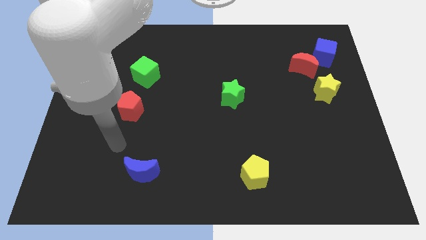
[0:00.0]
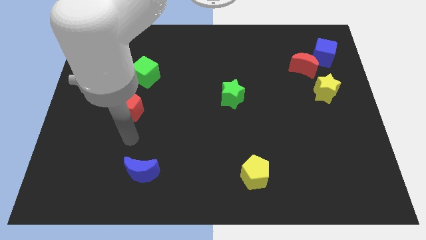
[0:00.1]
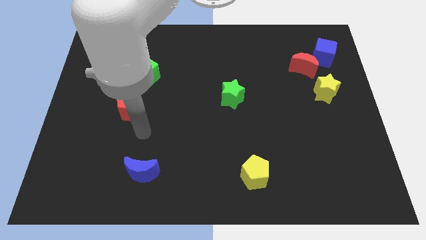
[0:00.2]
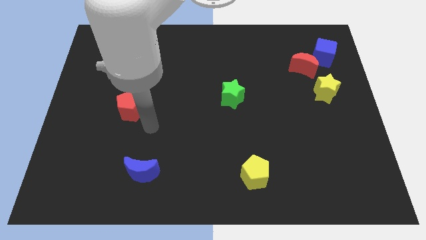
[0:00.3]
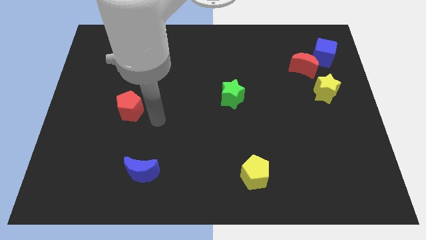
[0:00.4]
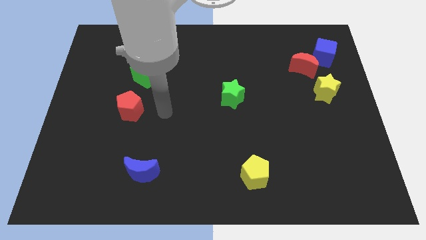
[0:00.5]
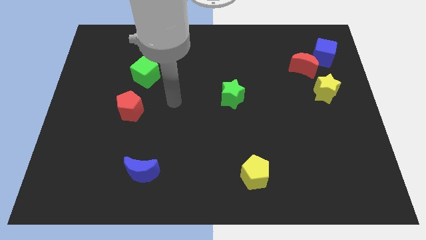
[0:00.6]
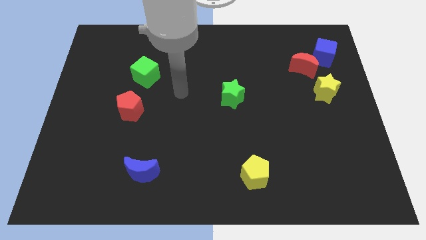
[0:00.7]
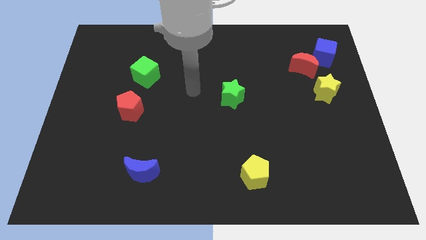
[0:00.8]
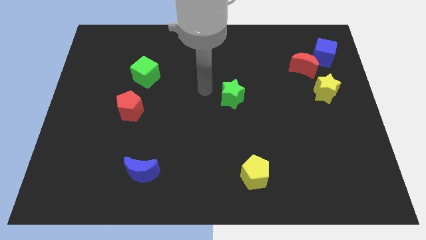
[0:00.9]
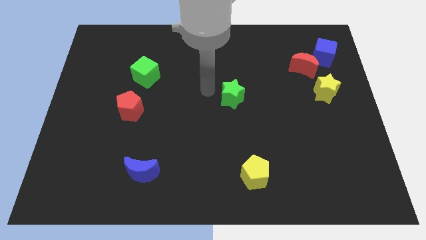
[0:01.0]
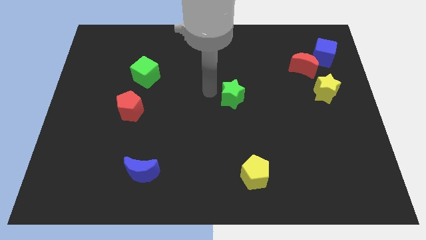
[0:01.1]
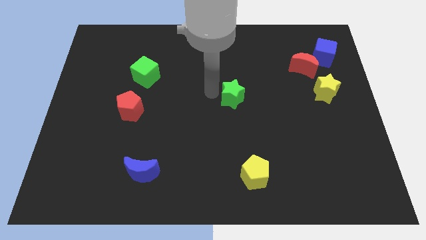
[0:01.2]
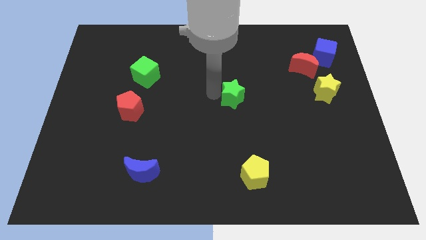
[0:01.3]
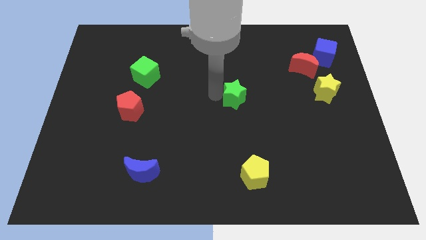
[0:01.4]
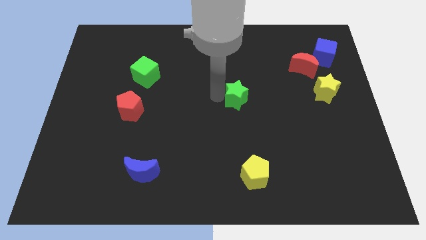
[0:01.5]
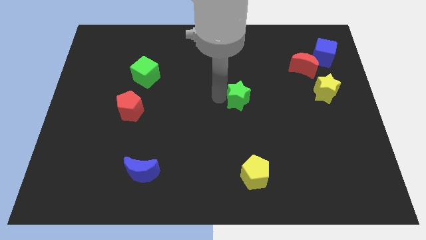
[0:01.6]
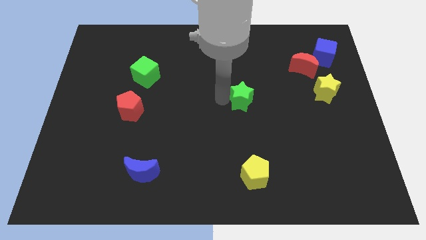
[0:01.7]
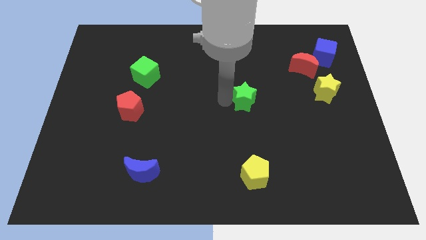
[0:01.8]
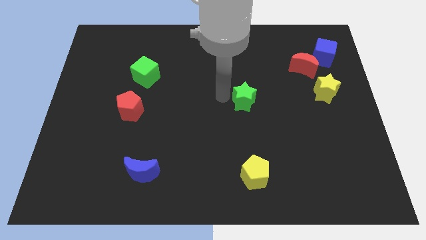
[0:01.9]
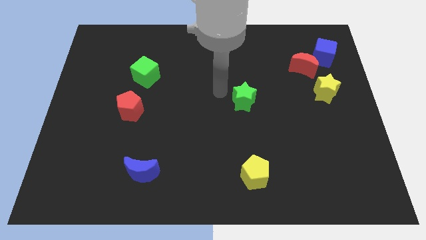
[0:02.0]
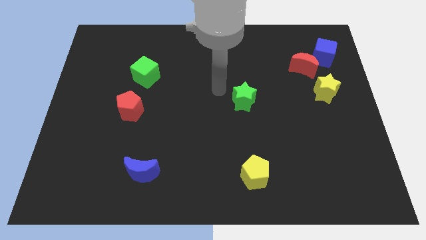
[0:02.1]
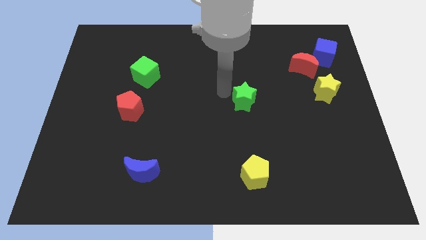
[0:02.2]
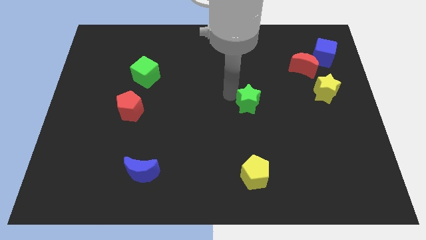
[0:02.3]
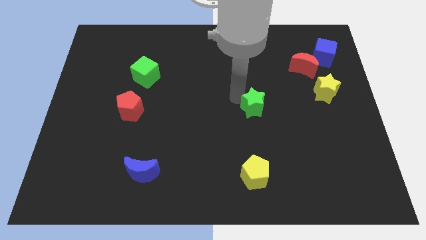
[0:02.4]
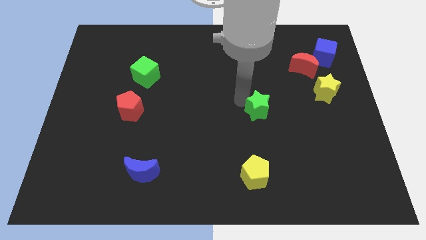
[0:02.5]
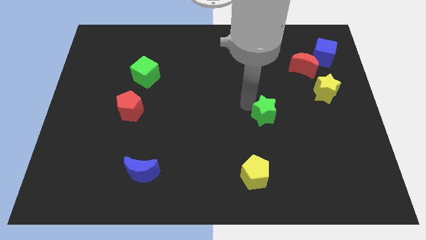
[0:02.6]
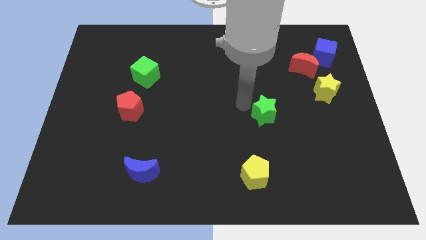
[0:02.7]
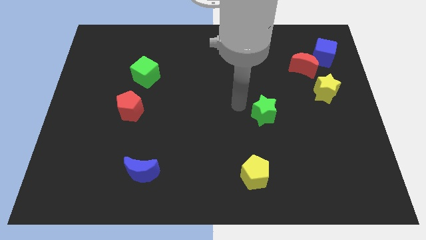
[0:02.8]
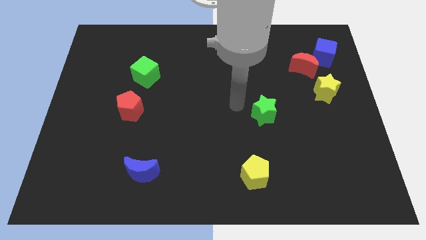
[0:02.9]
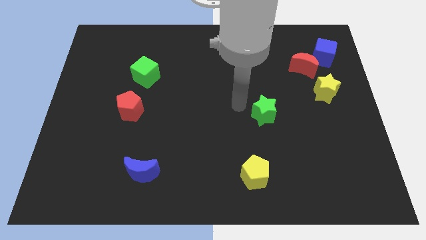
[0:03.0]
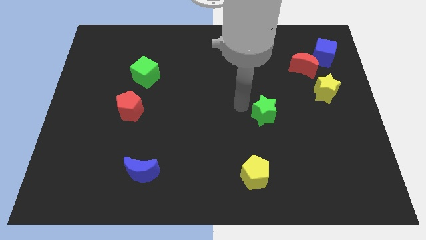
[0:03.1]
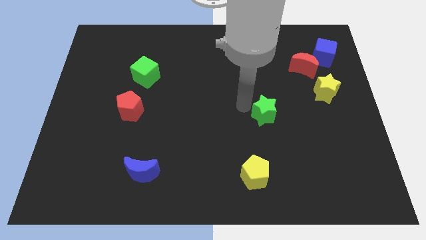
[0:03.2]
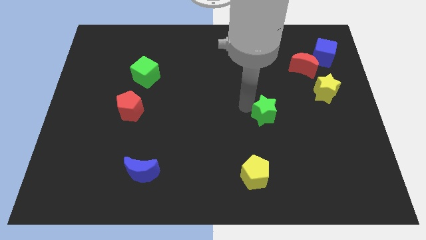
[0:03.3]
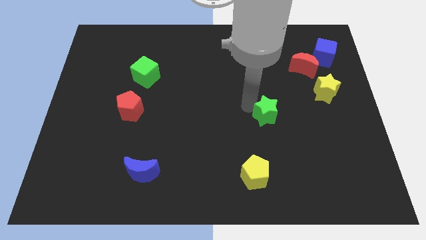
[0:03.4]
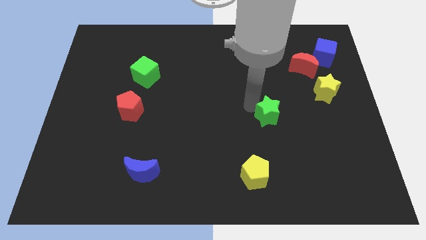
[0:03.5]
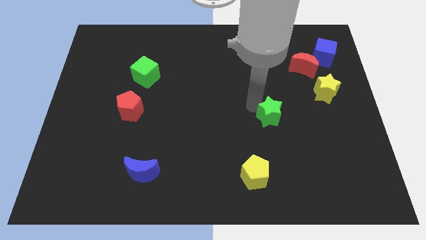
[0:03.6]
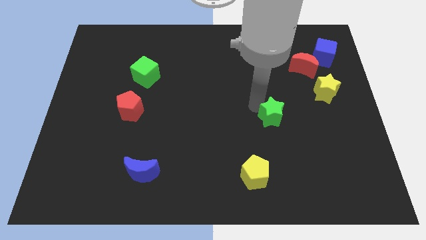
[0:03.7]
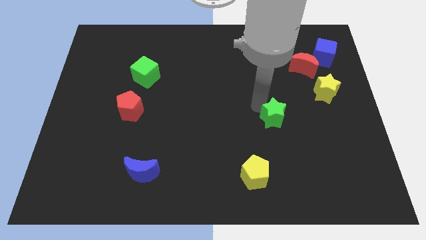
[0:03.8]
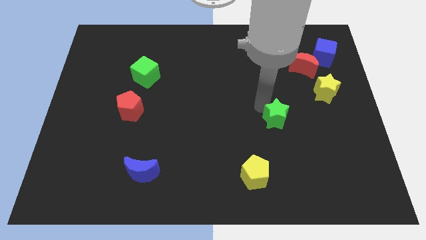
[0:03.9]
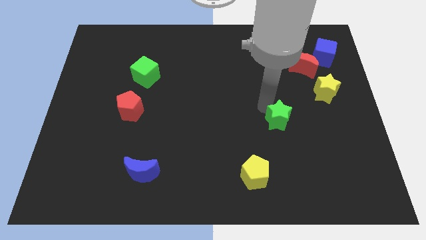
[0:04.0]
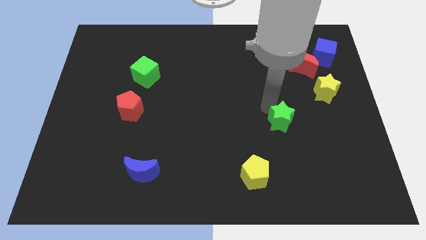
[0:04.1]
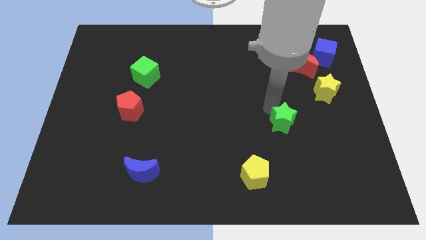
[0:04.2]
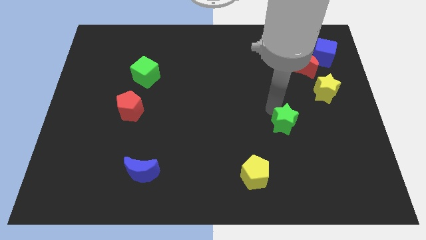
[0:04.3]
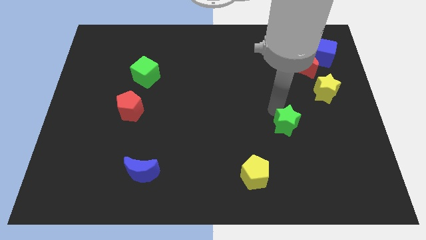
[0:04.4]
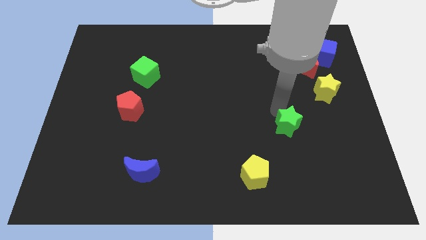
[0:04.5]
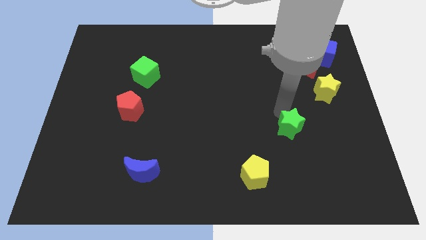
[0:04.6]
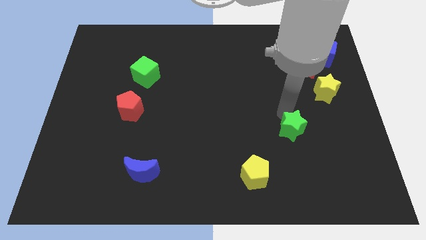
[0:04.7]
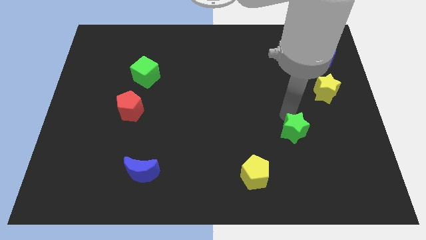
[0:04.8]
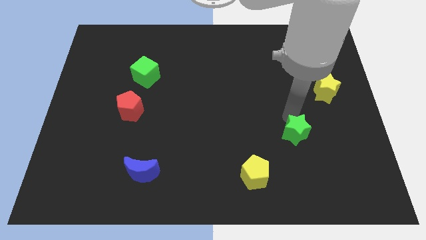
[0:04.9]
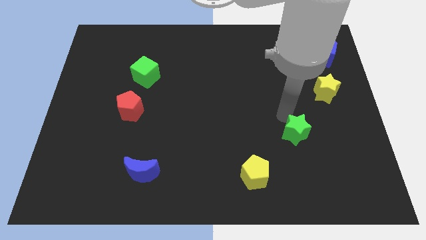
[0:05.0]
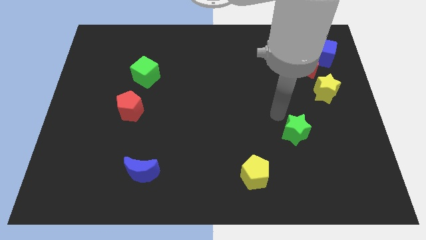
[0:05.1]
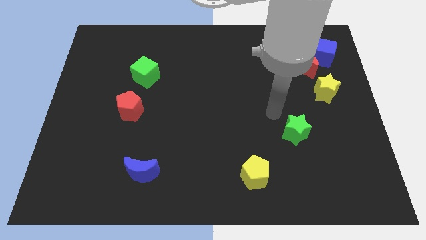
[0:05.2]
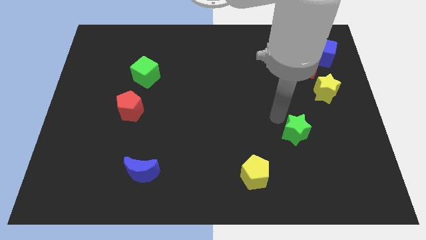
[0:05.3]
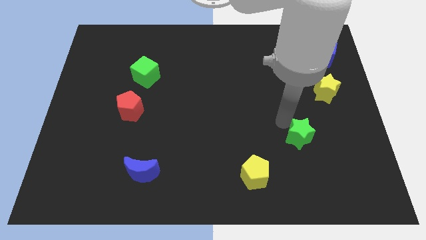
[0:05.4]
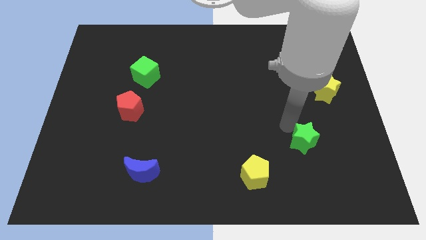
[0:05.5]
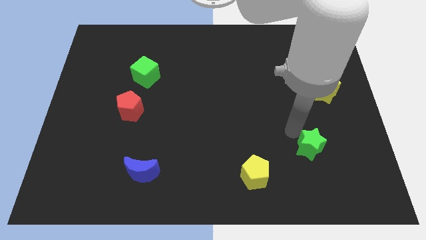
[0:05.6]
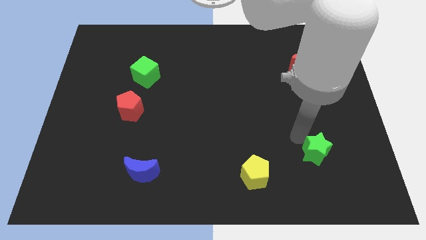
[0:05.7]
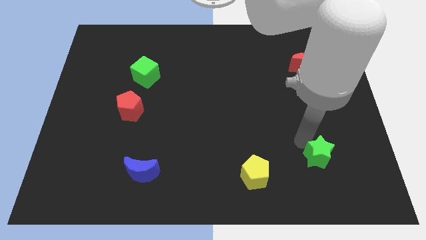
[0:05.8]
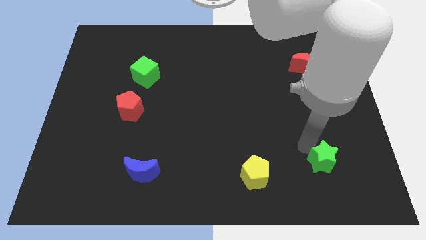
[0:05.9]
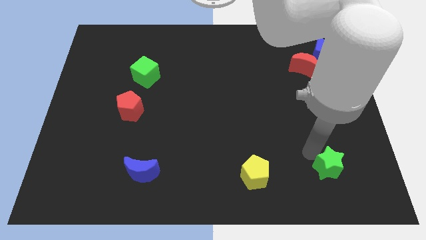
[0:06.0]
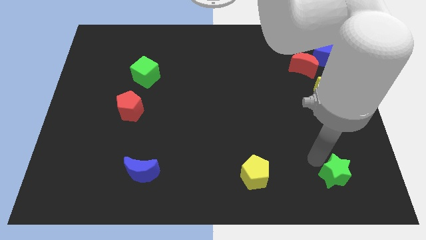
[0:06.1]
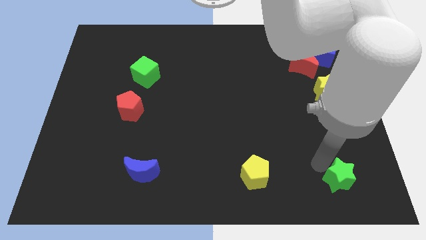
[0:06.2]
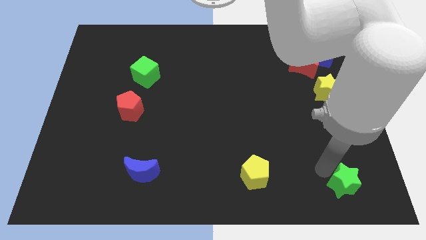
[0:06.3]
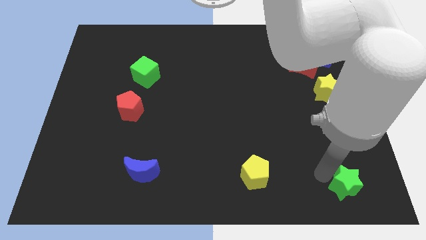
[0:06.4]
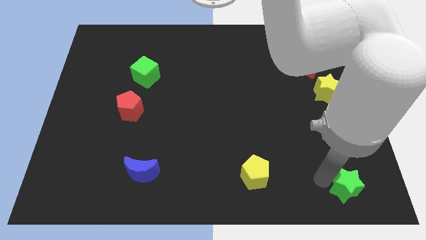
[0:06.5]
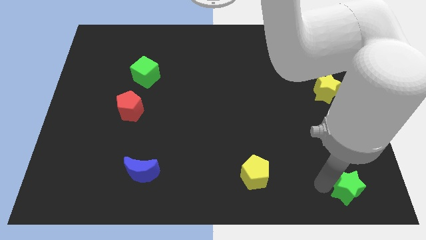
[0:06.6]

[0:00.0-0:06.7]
slide the green star to the bottom right
